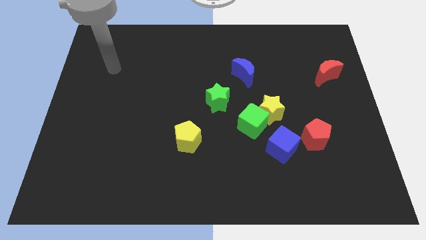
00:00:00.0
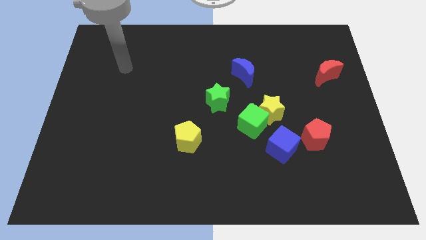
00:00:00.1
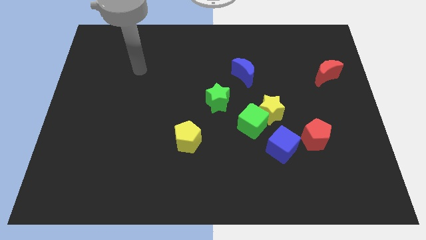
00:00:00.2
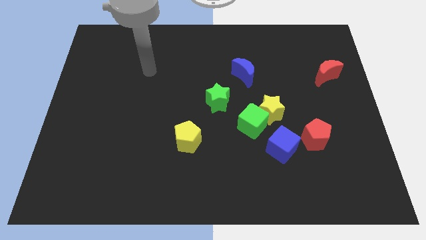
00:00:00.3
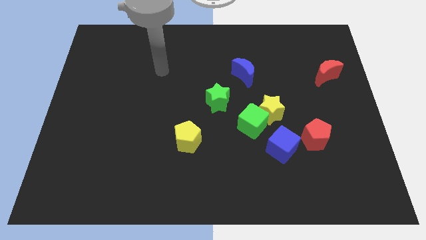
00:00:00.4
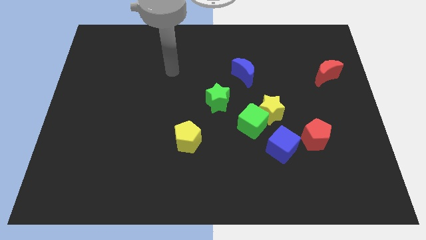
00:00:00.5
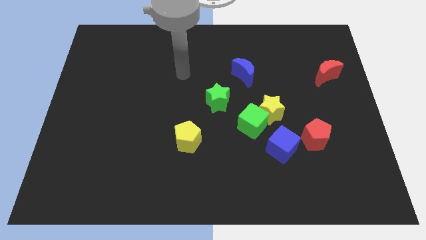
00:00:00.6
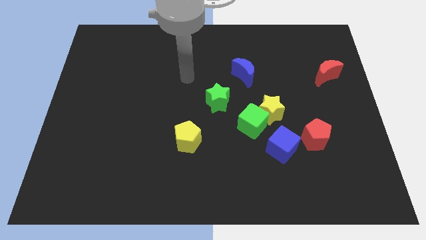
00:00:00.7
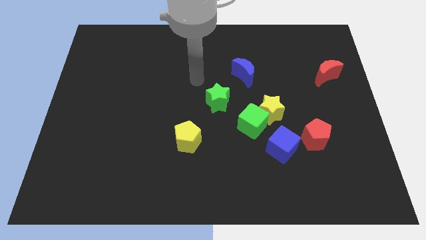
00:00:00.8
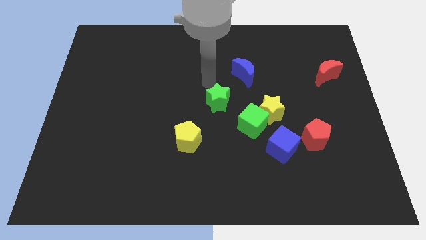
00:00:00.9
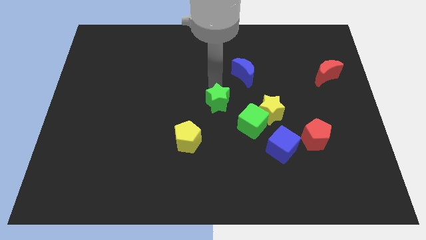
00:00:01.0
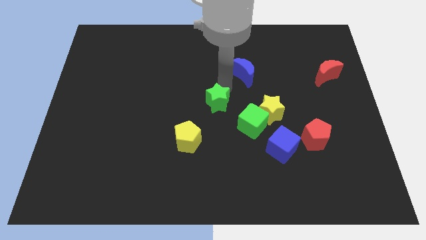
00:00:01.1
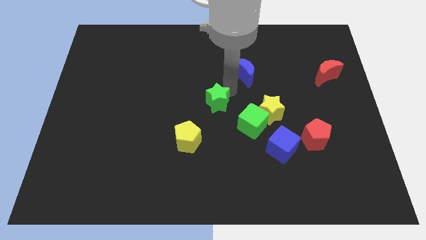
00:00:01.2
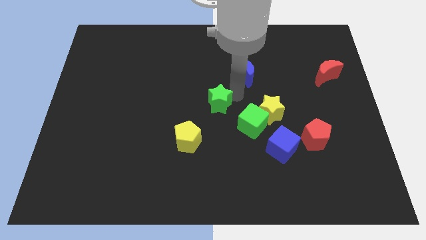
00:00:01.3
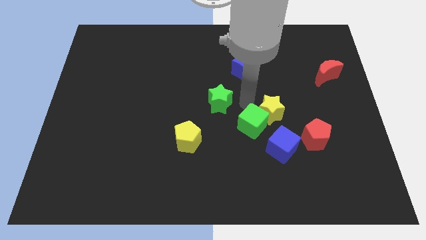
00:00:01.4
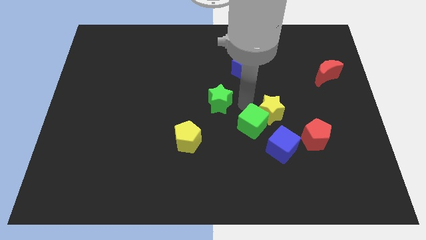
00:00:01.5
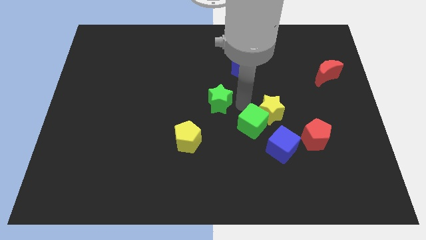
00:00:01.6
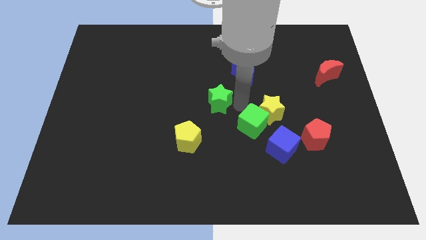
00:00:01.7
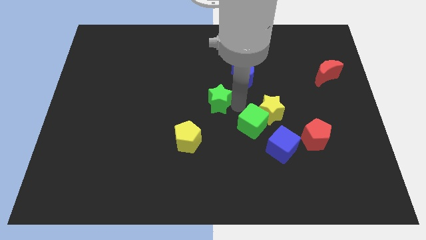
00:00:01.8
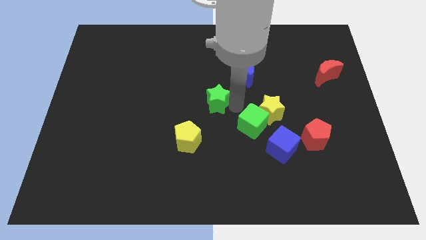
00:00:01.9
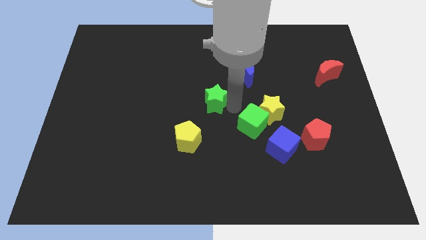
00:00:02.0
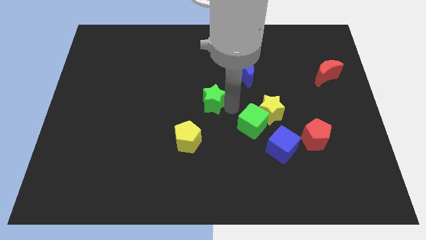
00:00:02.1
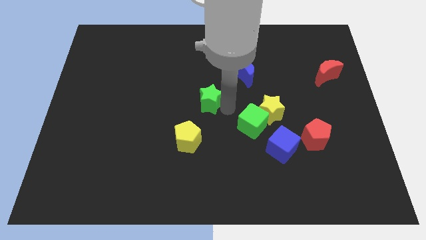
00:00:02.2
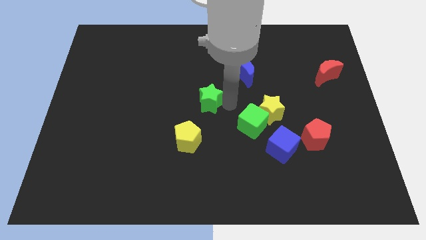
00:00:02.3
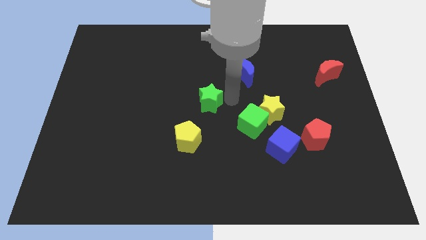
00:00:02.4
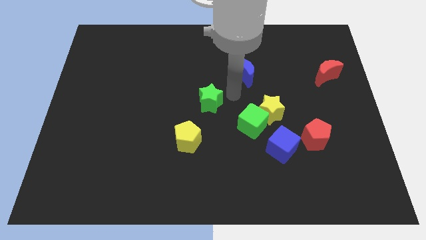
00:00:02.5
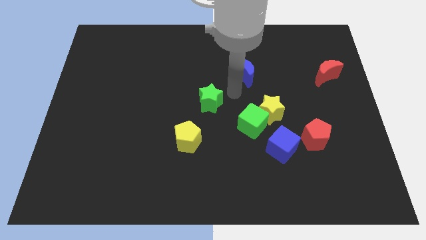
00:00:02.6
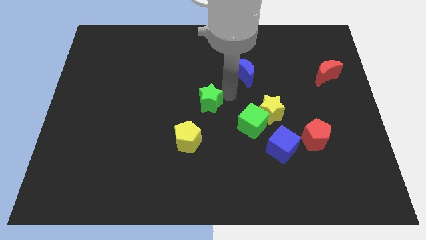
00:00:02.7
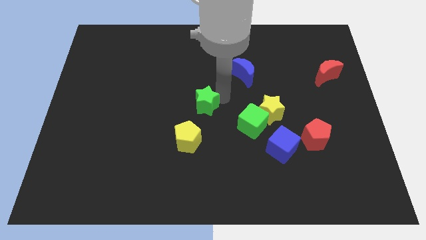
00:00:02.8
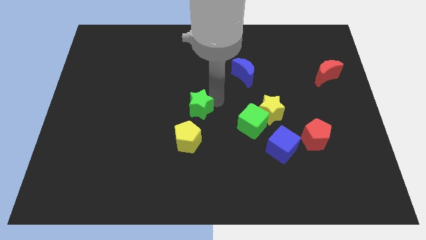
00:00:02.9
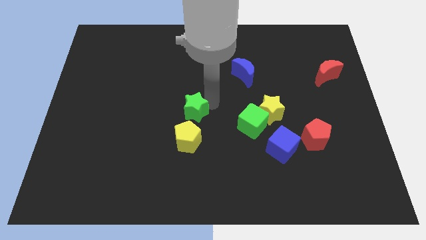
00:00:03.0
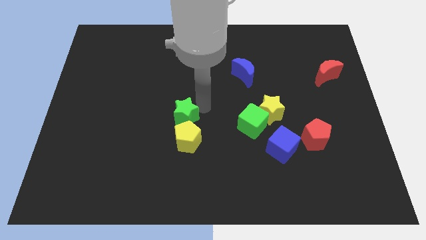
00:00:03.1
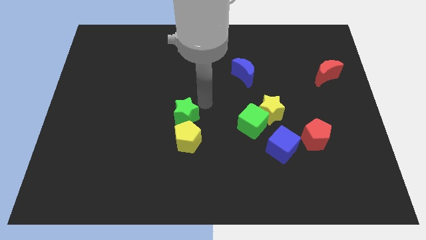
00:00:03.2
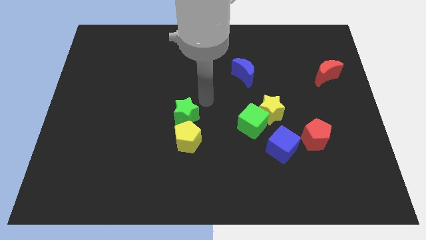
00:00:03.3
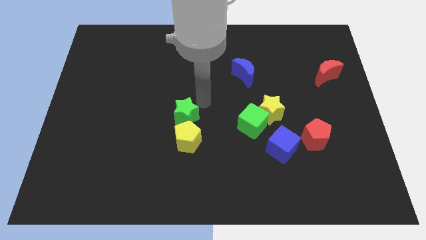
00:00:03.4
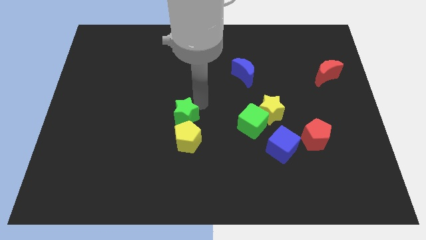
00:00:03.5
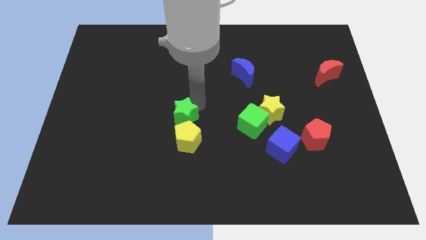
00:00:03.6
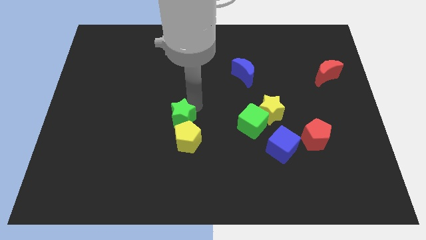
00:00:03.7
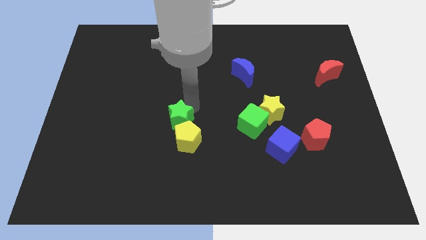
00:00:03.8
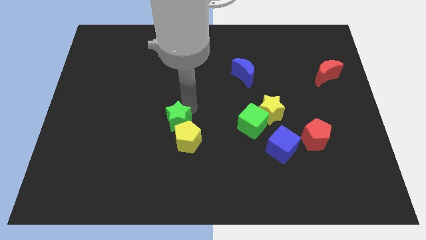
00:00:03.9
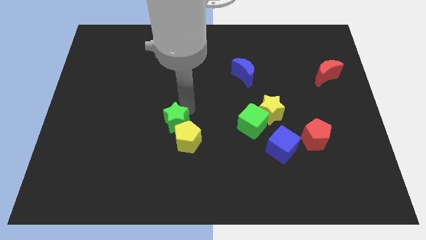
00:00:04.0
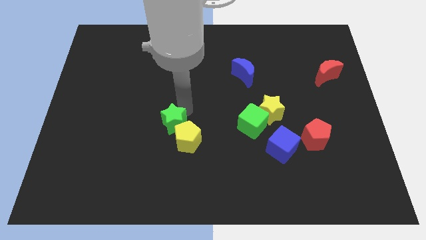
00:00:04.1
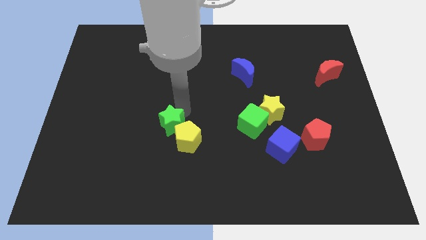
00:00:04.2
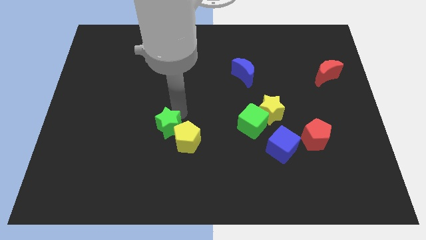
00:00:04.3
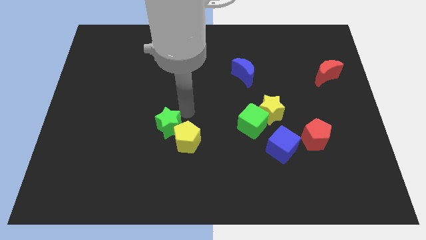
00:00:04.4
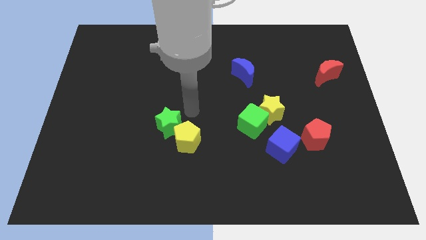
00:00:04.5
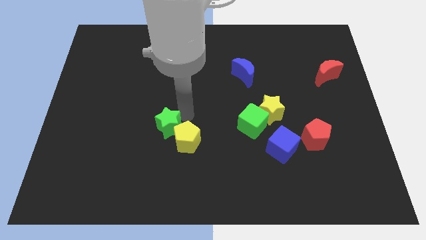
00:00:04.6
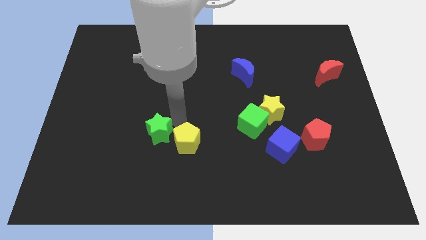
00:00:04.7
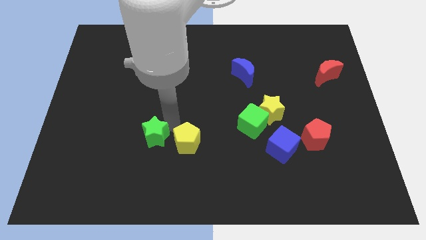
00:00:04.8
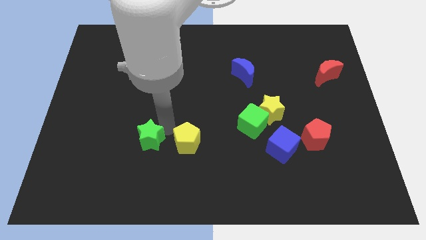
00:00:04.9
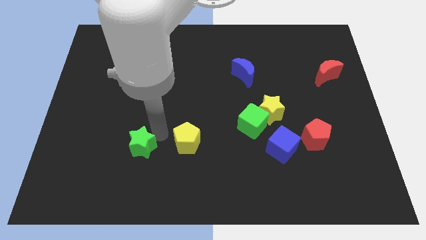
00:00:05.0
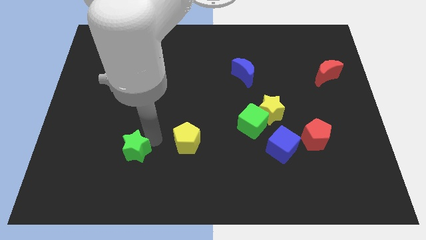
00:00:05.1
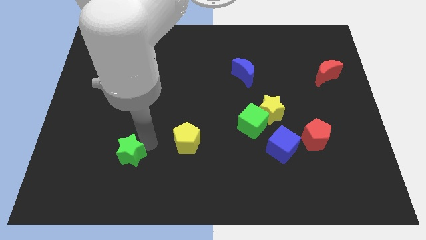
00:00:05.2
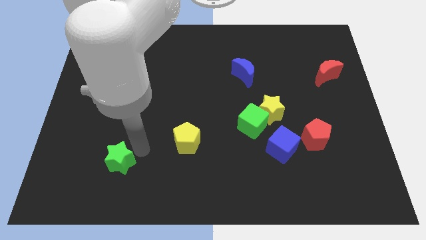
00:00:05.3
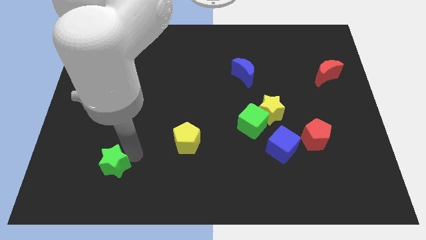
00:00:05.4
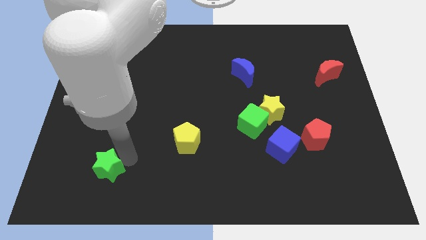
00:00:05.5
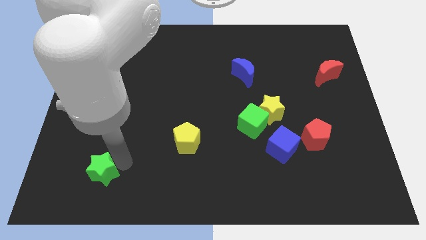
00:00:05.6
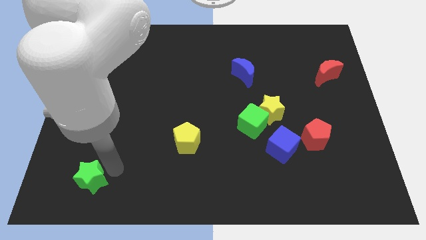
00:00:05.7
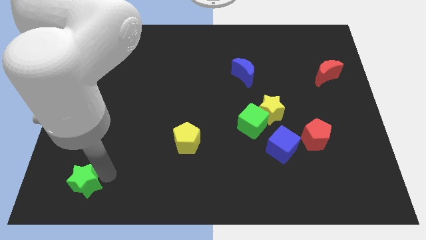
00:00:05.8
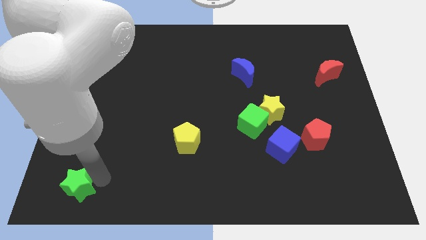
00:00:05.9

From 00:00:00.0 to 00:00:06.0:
move the green star to the bottom left

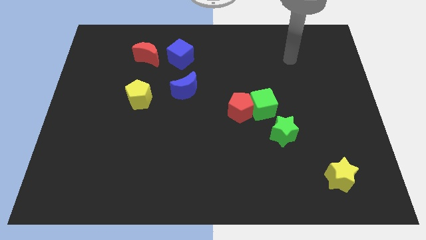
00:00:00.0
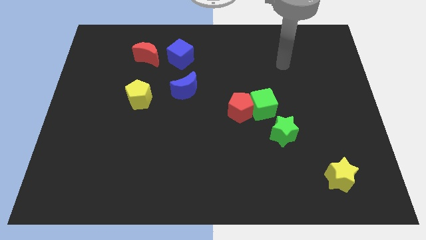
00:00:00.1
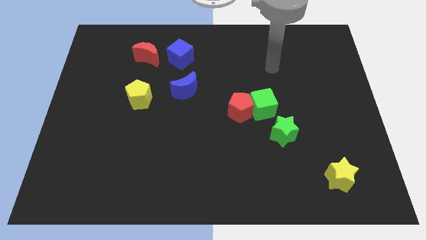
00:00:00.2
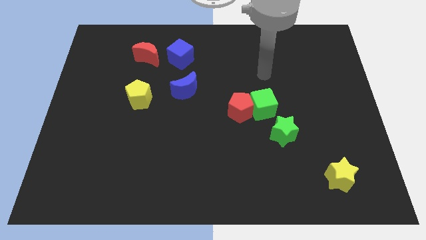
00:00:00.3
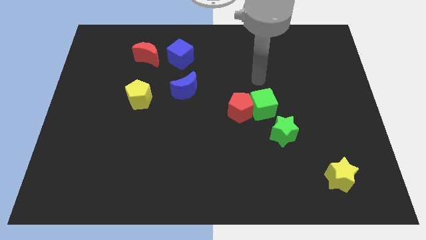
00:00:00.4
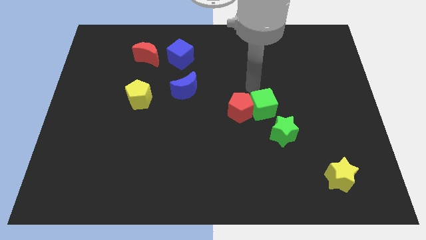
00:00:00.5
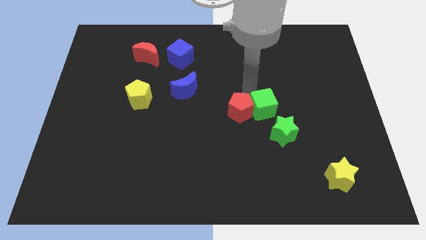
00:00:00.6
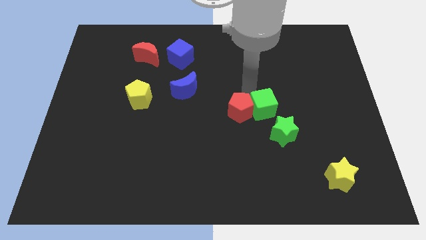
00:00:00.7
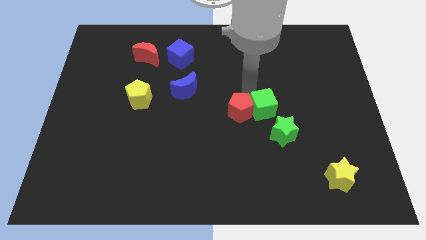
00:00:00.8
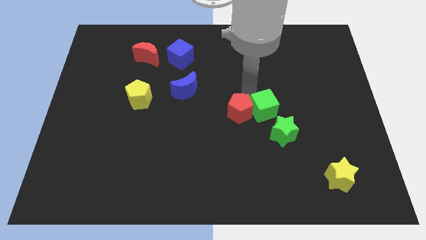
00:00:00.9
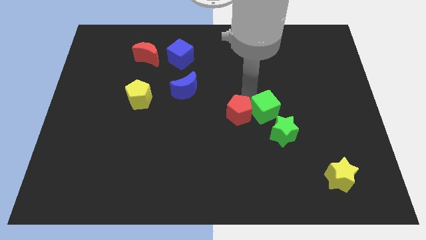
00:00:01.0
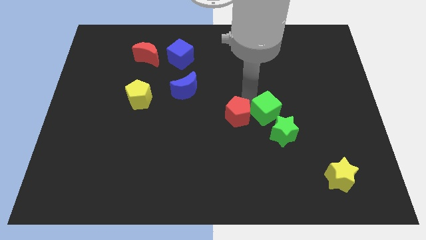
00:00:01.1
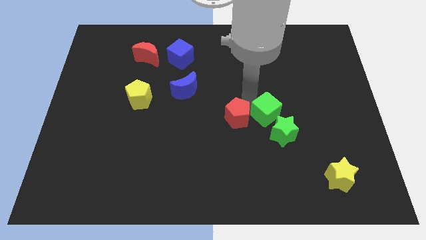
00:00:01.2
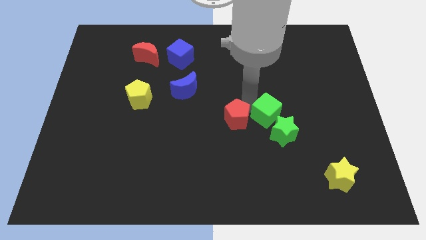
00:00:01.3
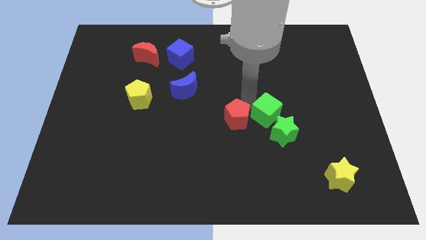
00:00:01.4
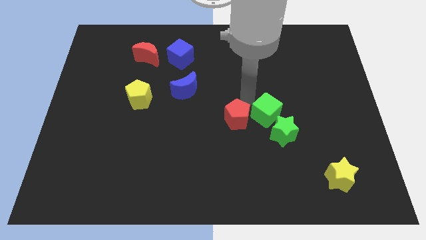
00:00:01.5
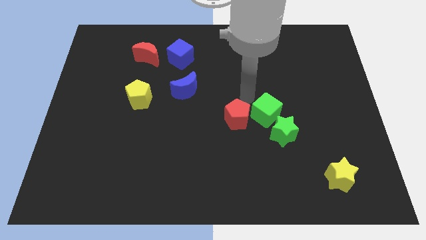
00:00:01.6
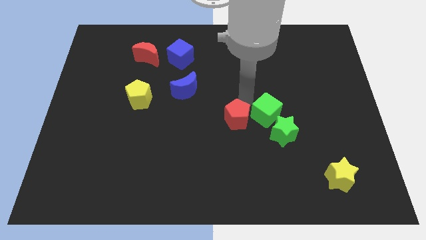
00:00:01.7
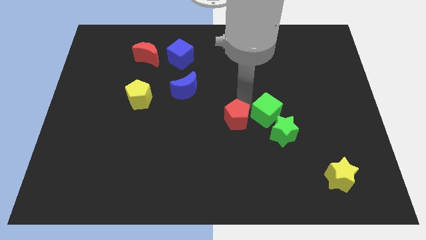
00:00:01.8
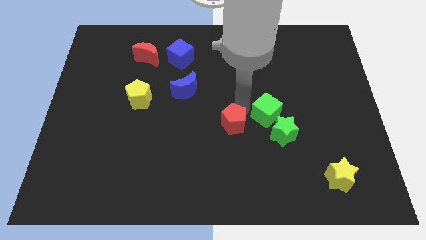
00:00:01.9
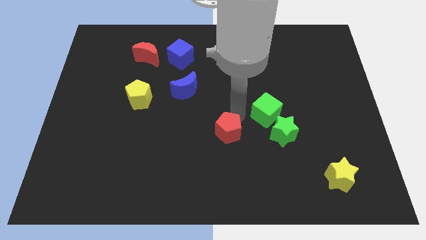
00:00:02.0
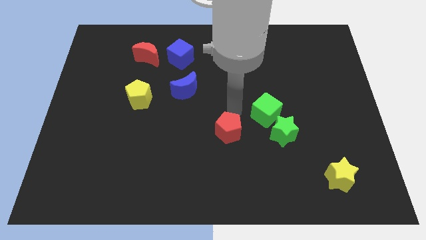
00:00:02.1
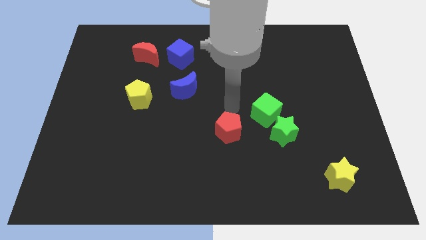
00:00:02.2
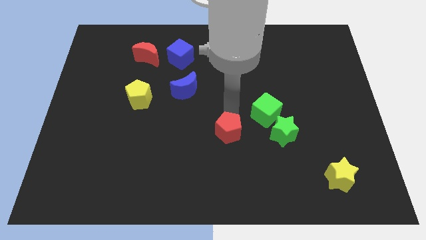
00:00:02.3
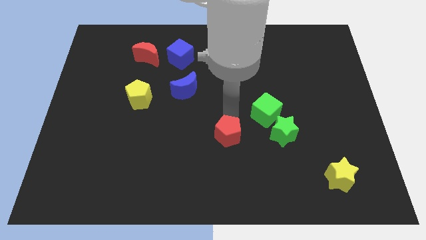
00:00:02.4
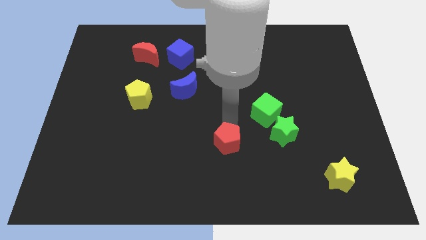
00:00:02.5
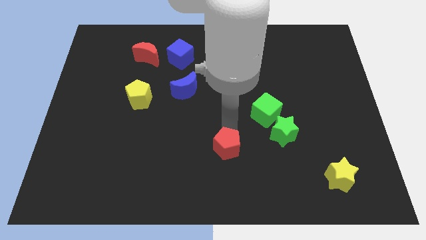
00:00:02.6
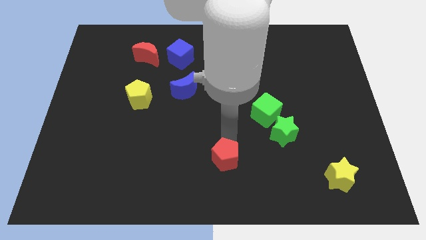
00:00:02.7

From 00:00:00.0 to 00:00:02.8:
put the red pentagon to the bottom side
